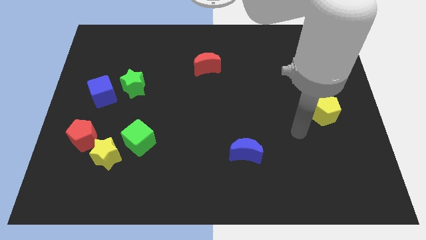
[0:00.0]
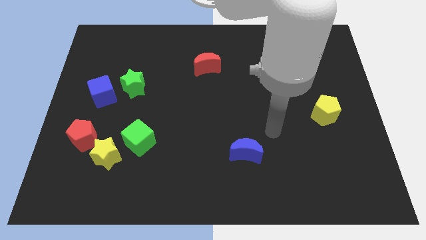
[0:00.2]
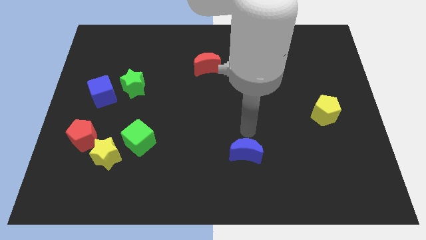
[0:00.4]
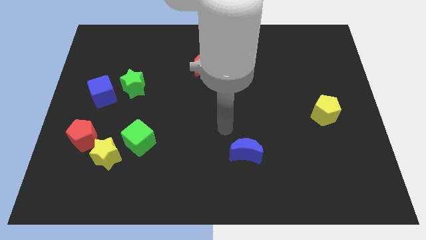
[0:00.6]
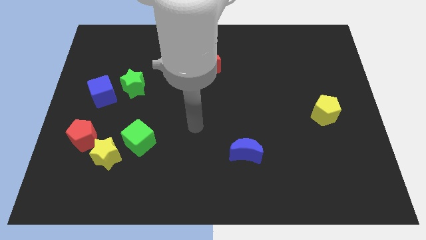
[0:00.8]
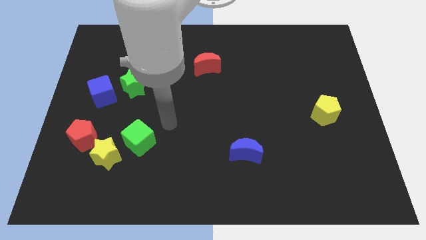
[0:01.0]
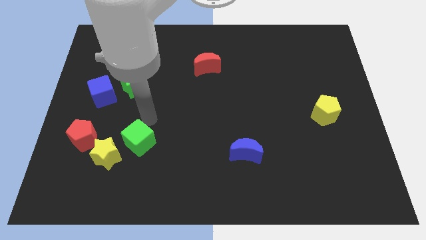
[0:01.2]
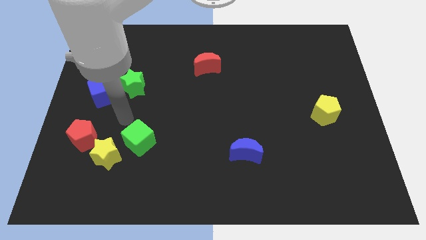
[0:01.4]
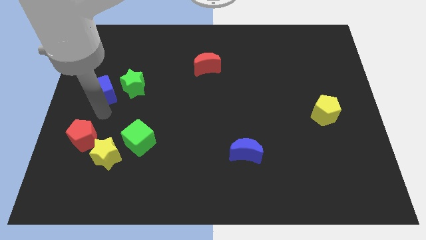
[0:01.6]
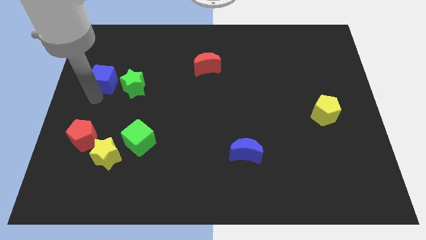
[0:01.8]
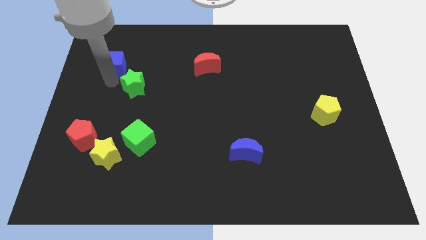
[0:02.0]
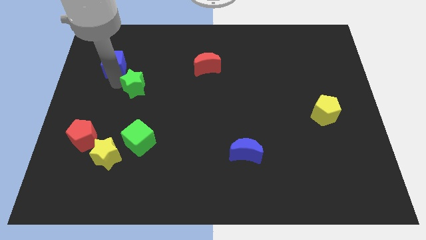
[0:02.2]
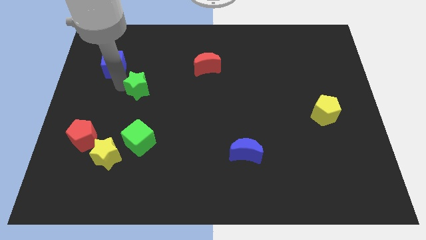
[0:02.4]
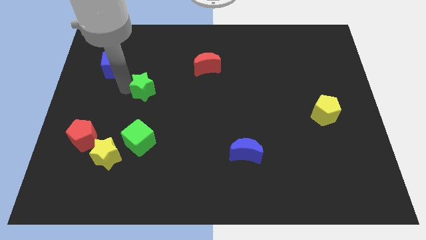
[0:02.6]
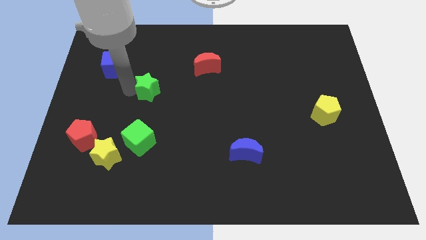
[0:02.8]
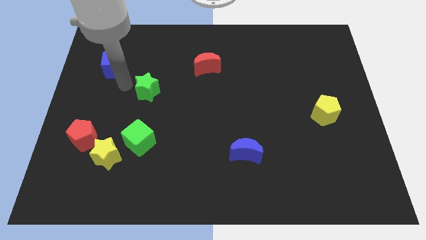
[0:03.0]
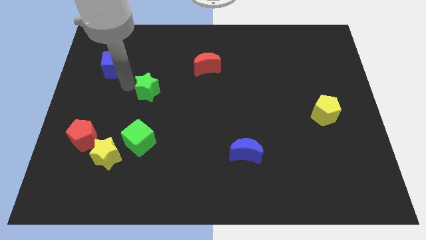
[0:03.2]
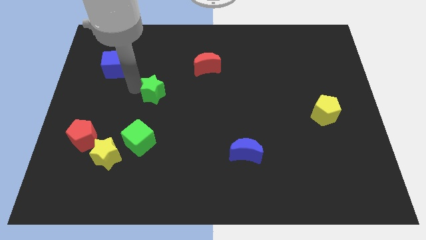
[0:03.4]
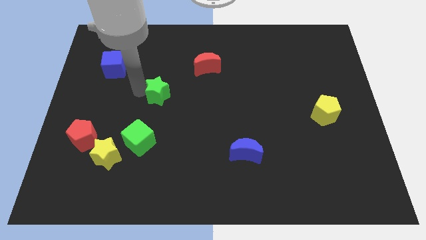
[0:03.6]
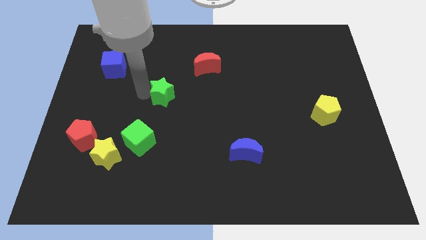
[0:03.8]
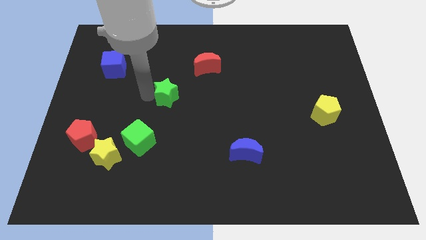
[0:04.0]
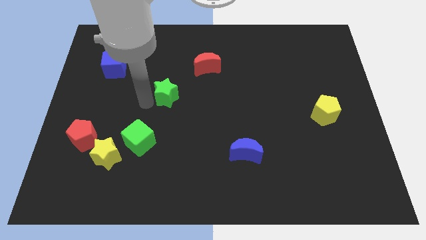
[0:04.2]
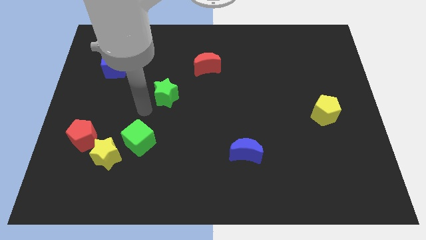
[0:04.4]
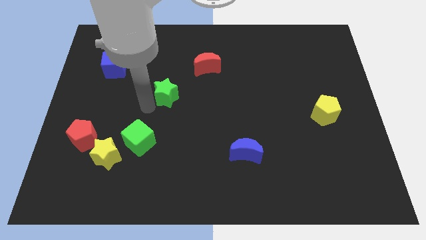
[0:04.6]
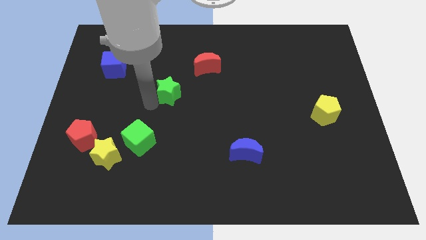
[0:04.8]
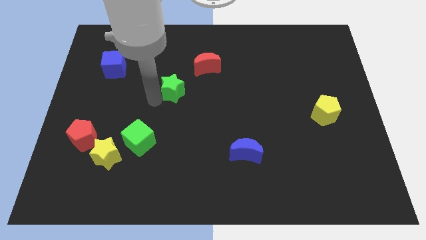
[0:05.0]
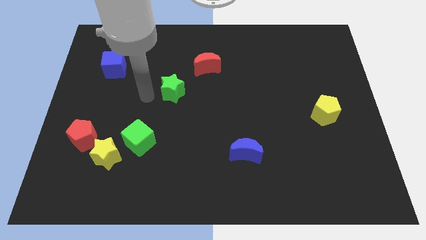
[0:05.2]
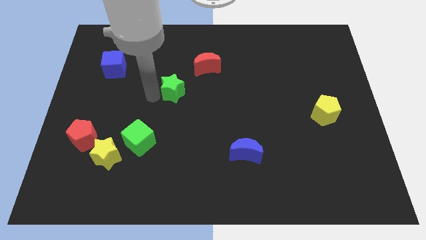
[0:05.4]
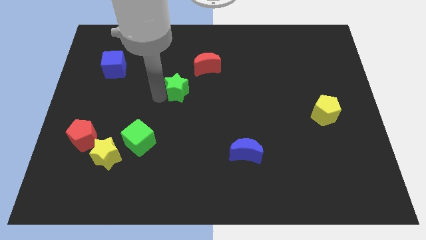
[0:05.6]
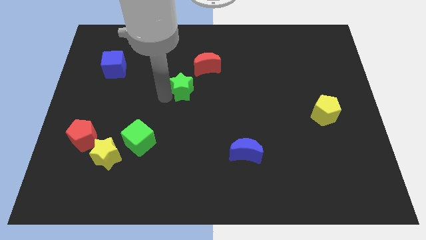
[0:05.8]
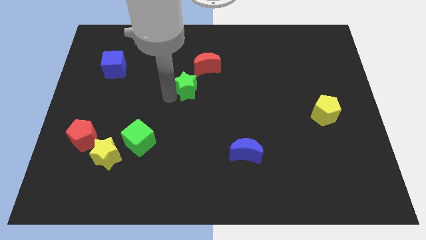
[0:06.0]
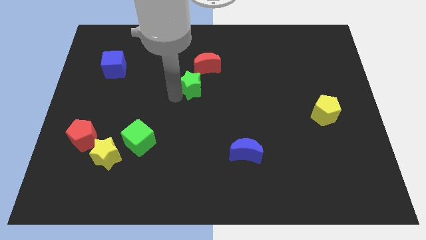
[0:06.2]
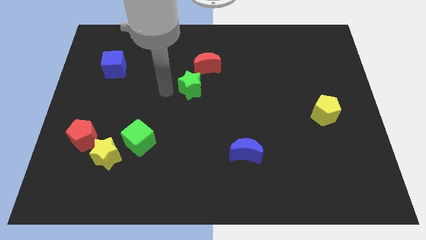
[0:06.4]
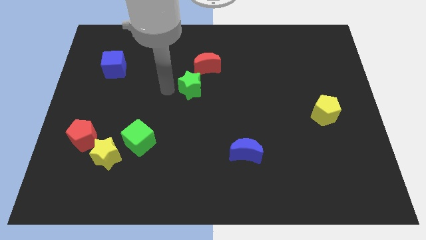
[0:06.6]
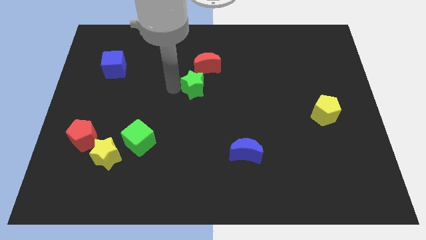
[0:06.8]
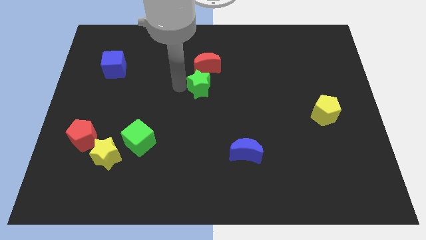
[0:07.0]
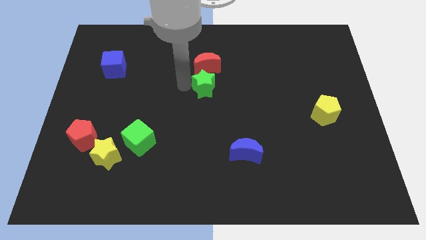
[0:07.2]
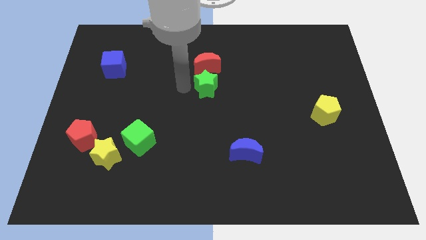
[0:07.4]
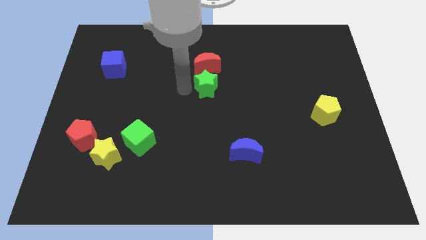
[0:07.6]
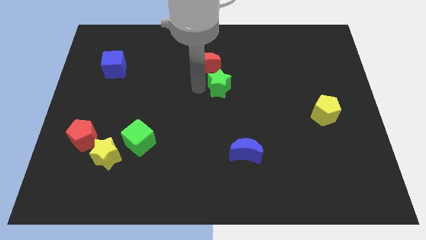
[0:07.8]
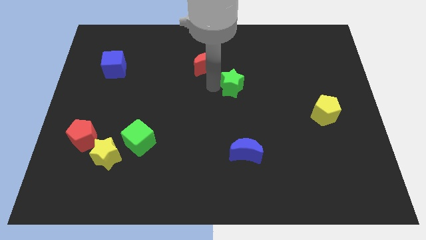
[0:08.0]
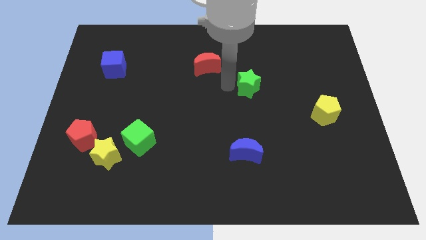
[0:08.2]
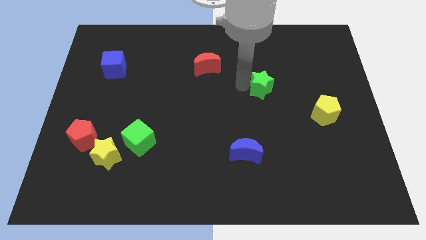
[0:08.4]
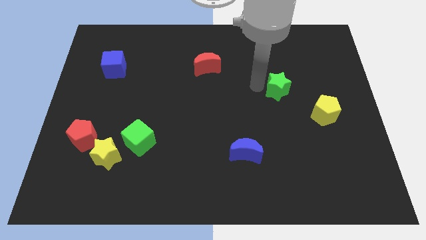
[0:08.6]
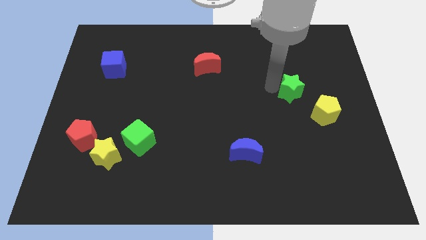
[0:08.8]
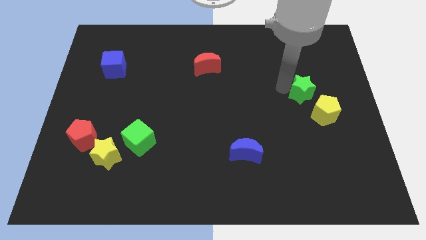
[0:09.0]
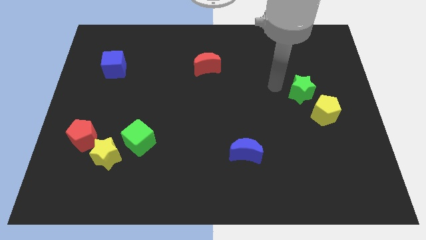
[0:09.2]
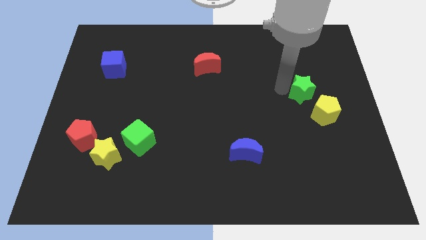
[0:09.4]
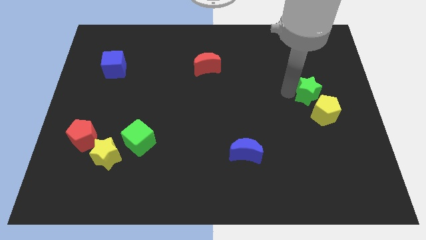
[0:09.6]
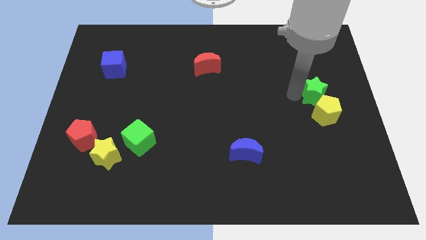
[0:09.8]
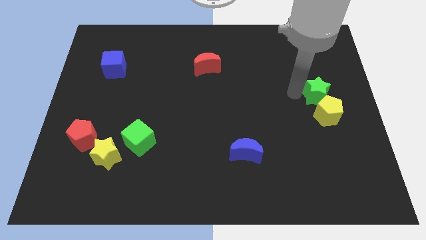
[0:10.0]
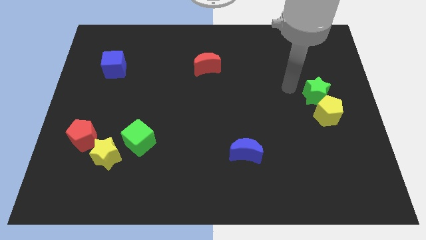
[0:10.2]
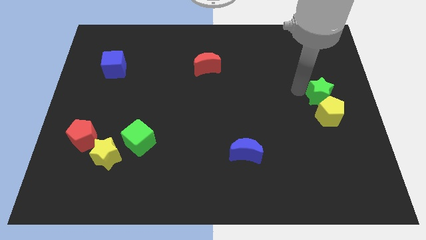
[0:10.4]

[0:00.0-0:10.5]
move the green star to the right side

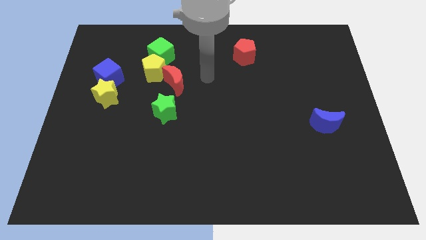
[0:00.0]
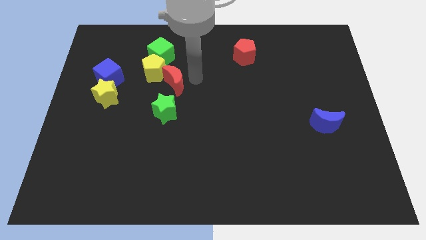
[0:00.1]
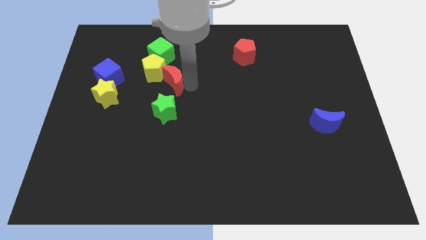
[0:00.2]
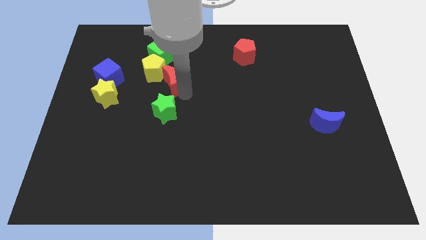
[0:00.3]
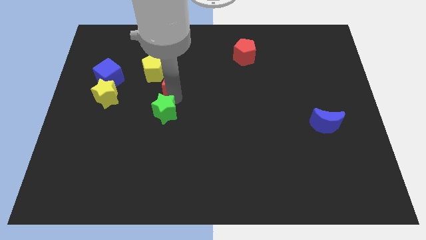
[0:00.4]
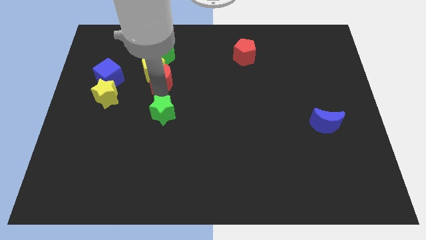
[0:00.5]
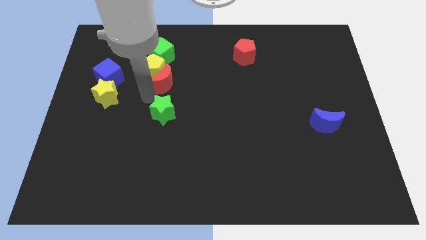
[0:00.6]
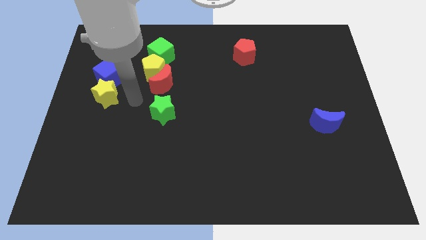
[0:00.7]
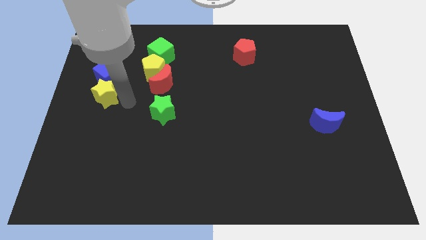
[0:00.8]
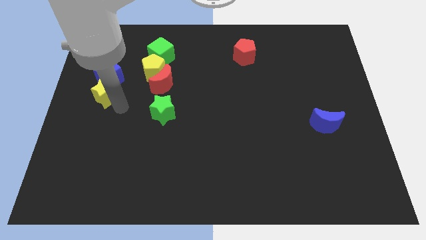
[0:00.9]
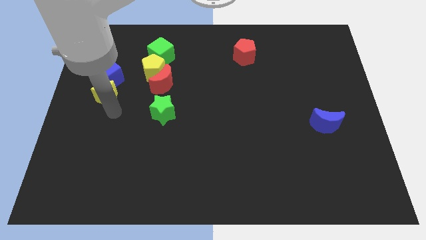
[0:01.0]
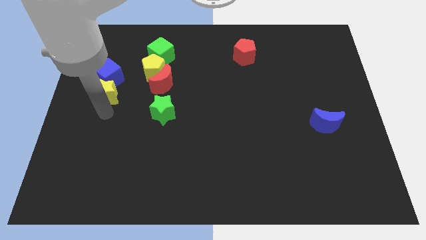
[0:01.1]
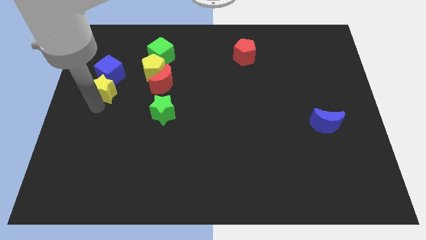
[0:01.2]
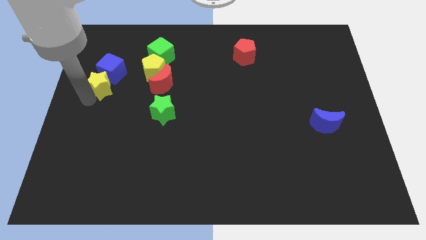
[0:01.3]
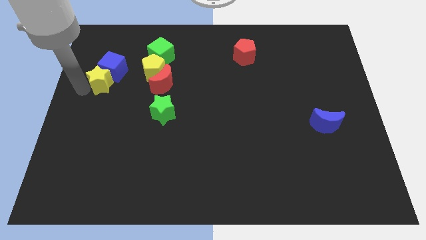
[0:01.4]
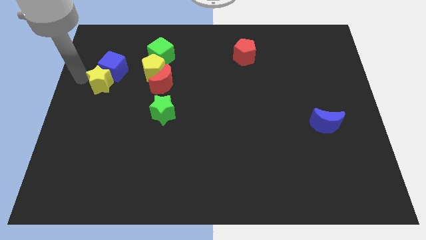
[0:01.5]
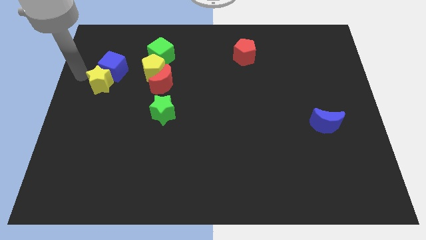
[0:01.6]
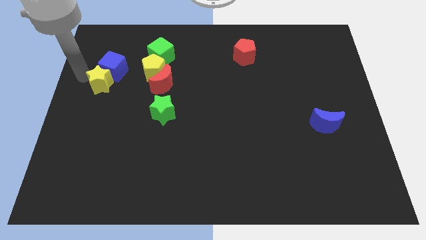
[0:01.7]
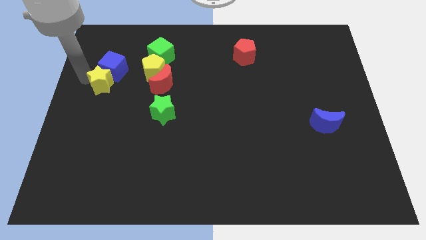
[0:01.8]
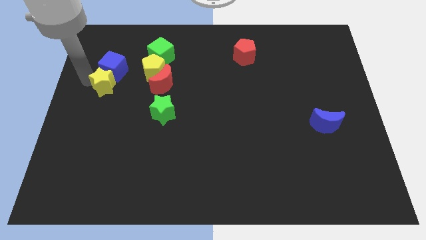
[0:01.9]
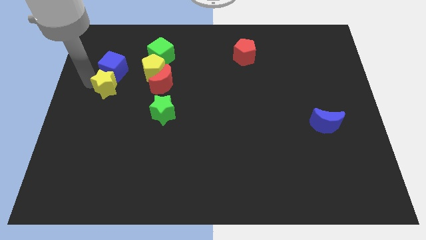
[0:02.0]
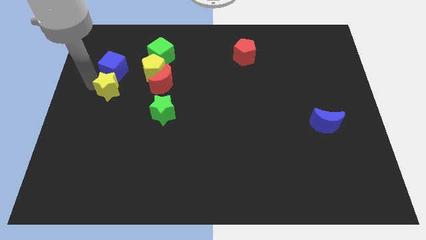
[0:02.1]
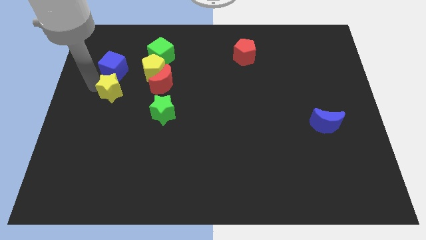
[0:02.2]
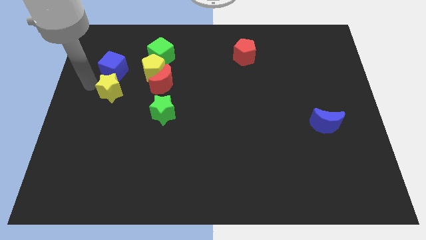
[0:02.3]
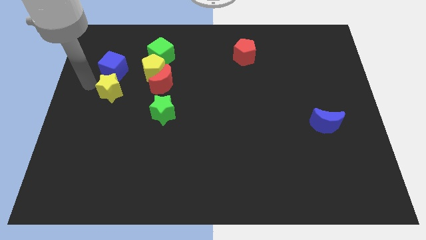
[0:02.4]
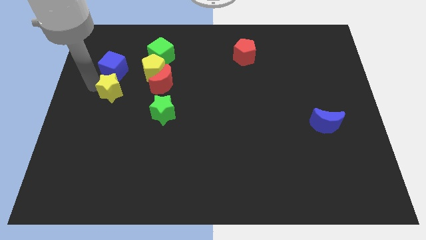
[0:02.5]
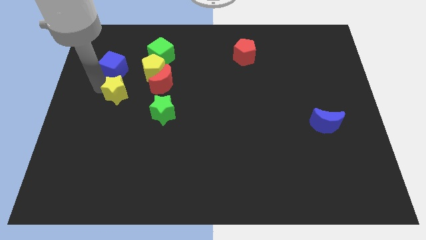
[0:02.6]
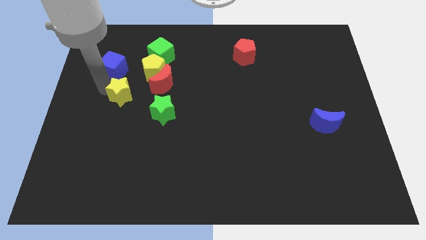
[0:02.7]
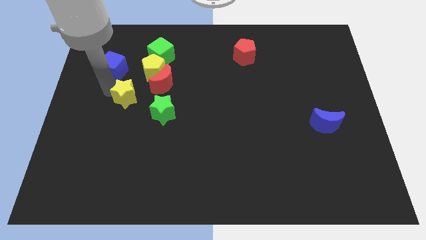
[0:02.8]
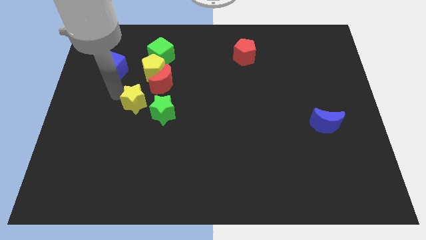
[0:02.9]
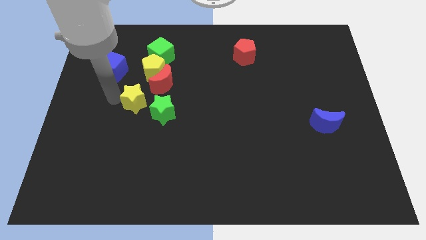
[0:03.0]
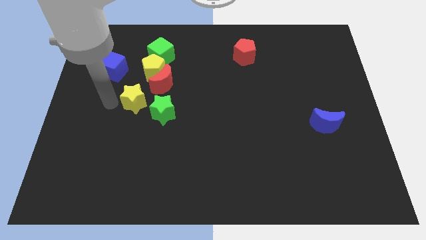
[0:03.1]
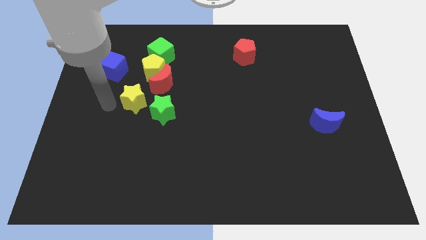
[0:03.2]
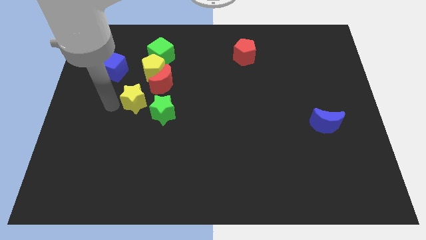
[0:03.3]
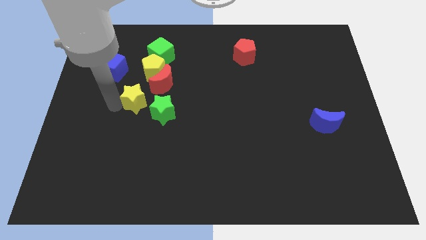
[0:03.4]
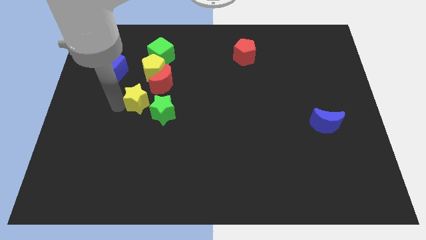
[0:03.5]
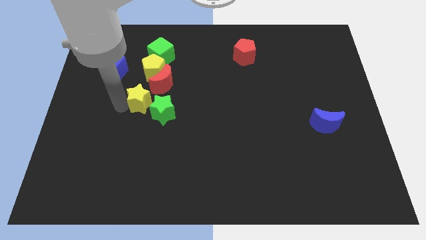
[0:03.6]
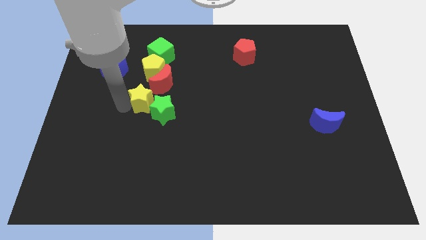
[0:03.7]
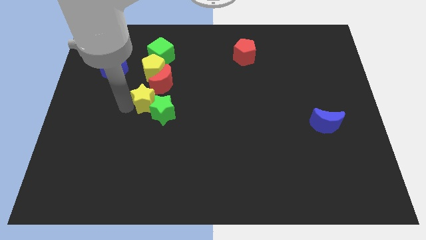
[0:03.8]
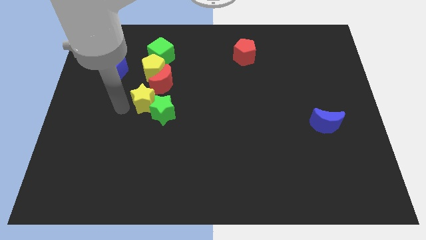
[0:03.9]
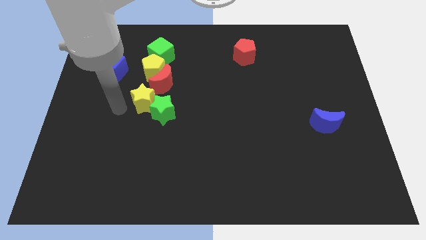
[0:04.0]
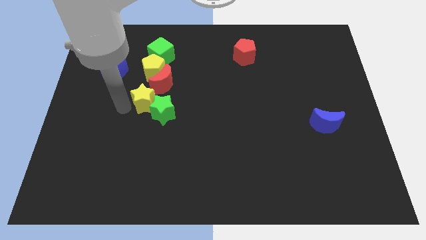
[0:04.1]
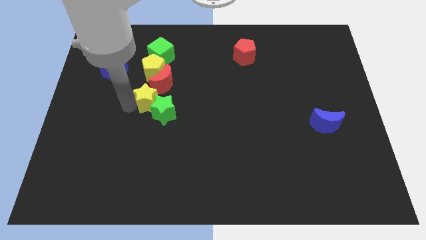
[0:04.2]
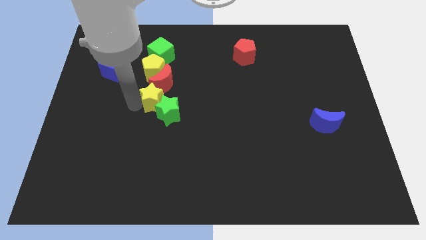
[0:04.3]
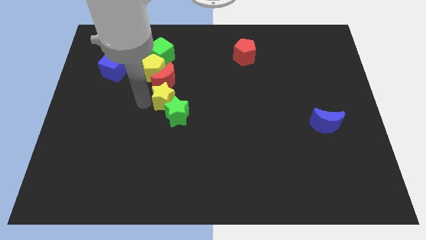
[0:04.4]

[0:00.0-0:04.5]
push the yellow star to the center of the board
